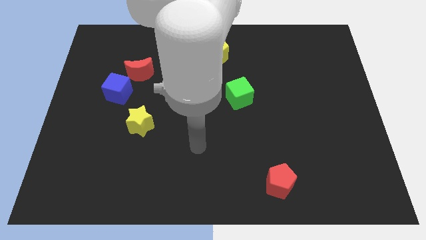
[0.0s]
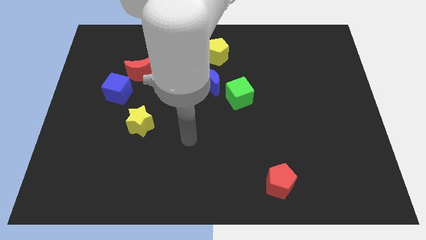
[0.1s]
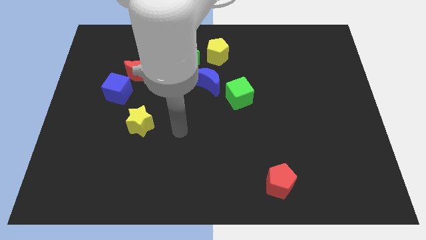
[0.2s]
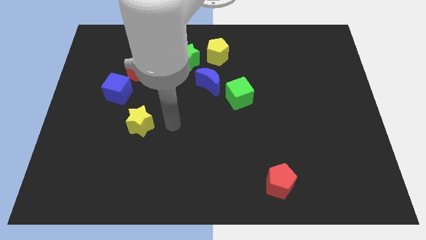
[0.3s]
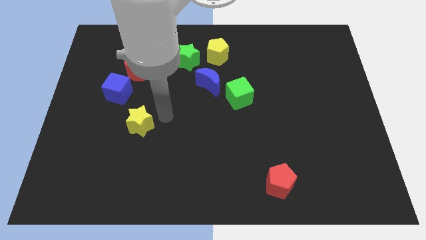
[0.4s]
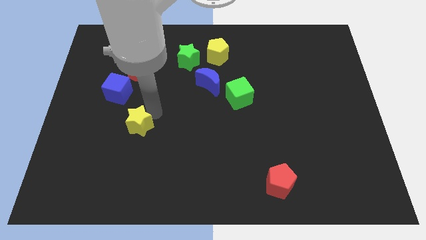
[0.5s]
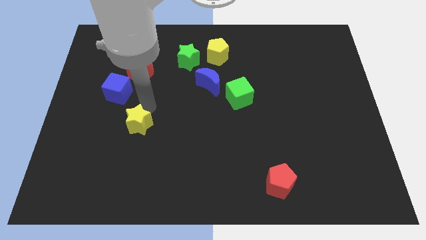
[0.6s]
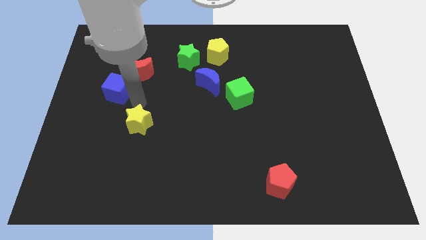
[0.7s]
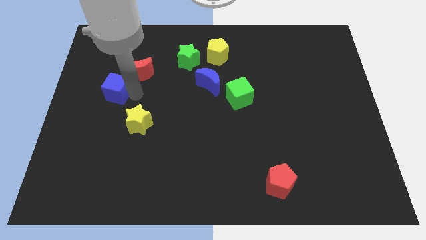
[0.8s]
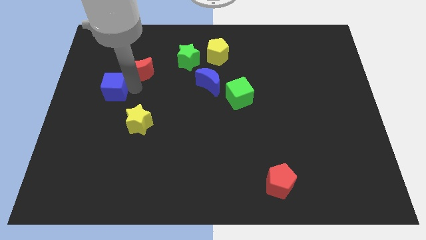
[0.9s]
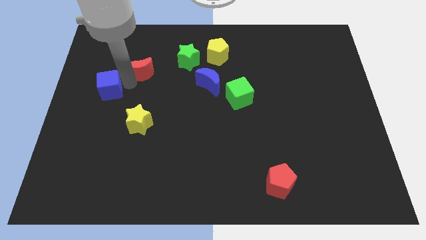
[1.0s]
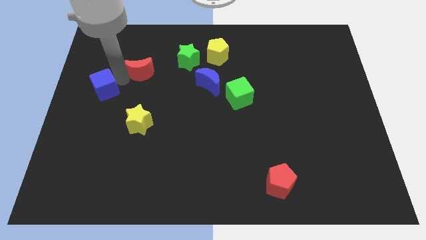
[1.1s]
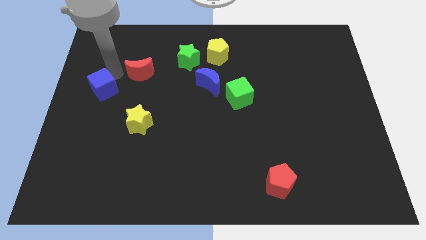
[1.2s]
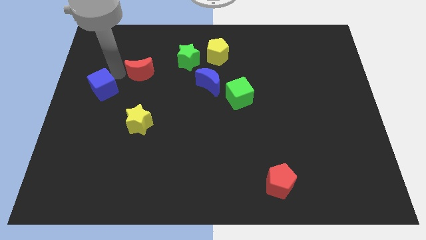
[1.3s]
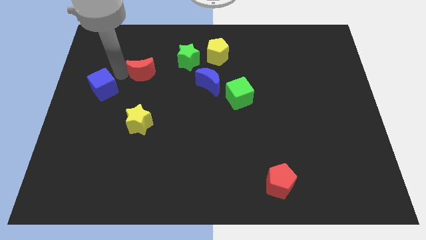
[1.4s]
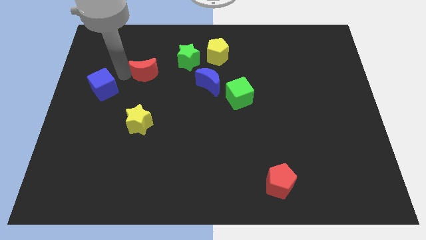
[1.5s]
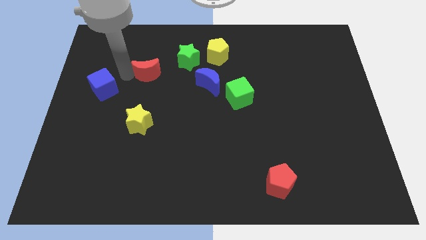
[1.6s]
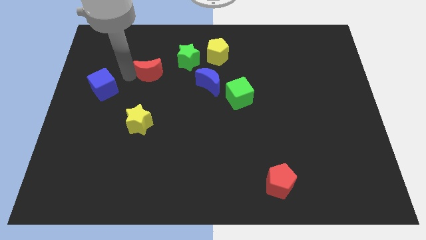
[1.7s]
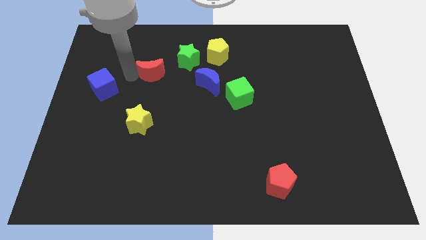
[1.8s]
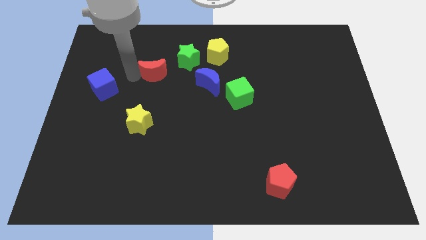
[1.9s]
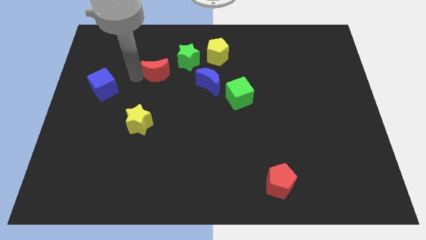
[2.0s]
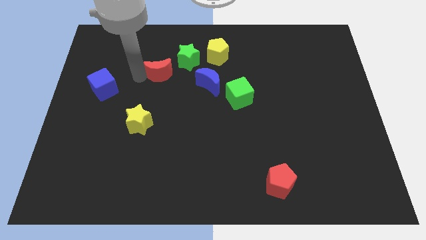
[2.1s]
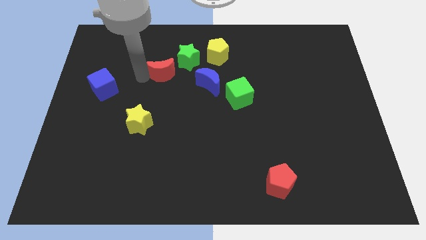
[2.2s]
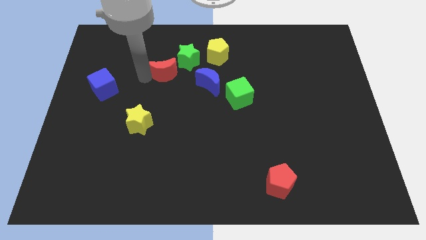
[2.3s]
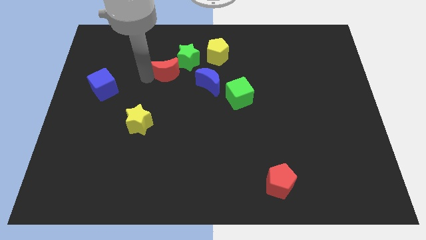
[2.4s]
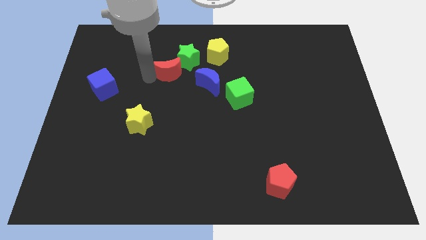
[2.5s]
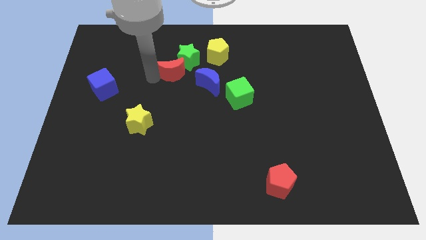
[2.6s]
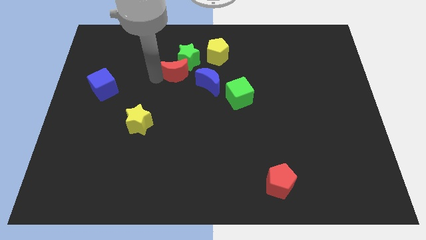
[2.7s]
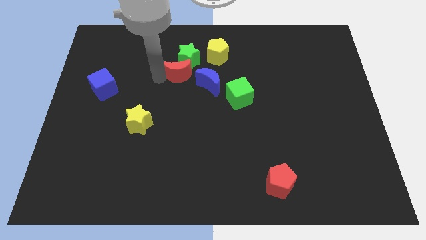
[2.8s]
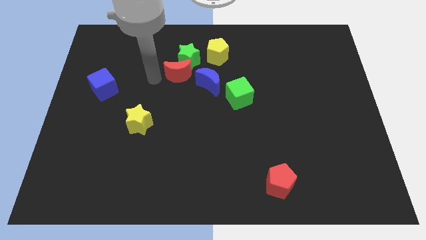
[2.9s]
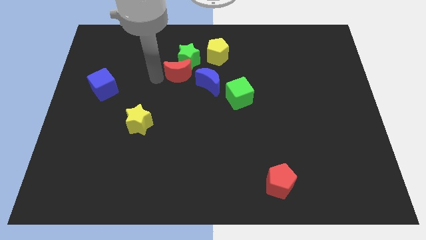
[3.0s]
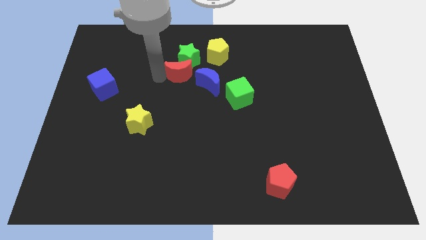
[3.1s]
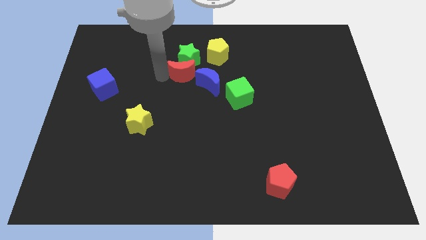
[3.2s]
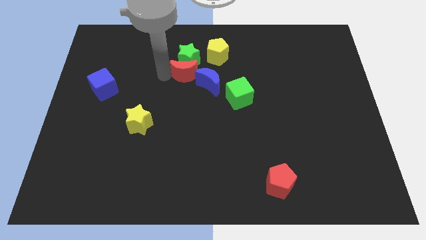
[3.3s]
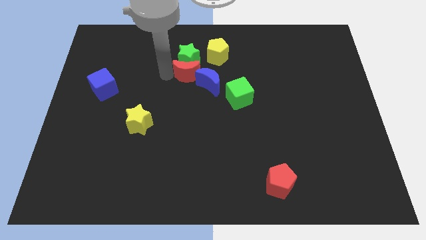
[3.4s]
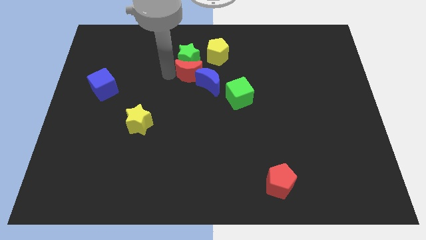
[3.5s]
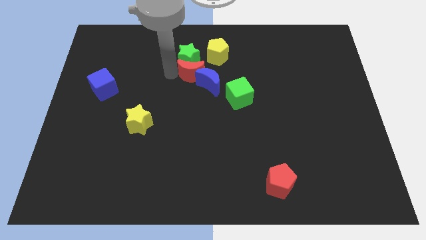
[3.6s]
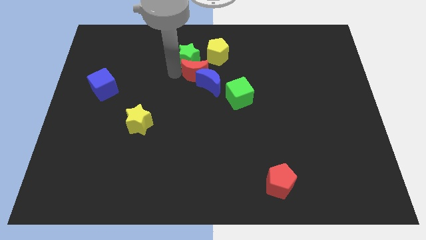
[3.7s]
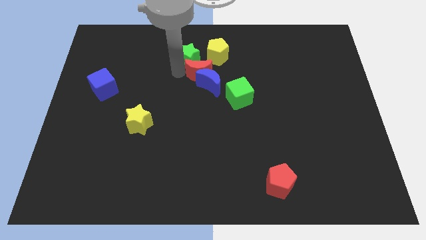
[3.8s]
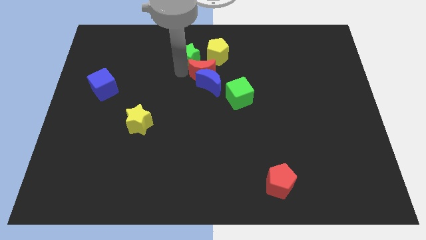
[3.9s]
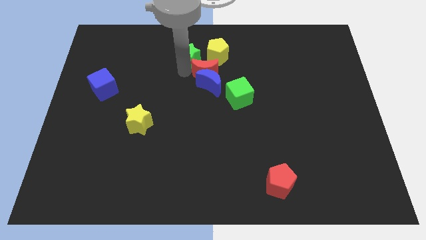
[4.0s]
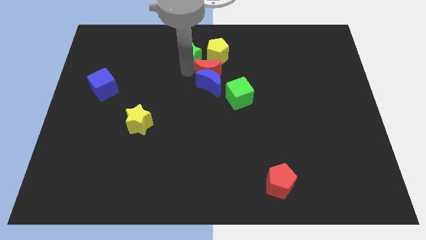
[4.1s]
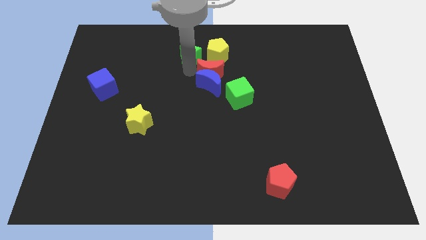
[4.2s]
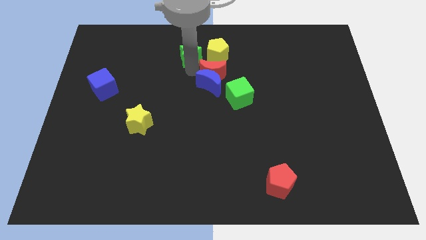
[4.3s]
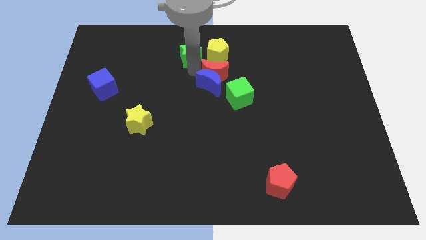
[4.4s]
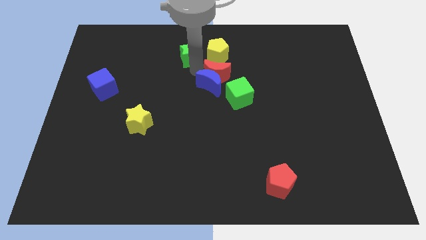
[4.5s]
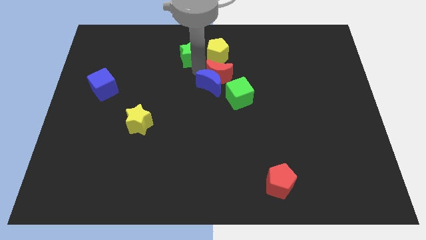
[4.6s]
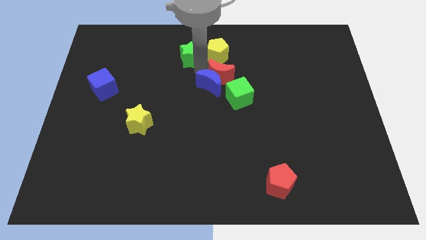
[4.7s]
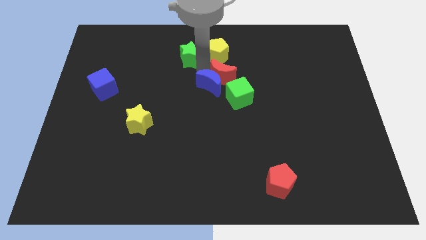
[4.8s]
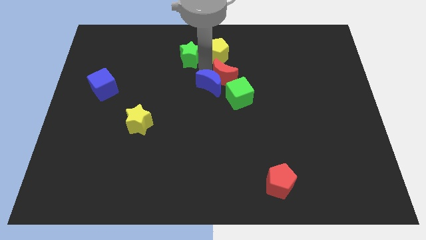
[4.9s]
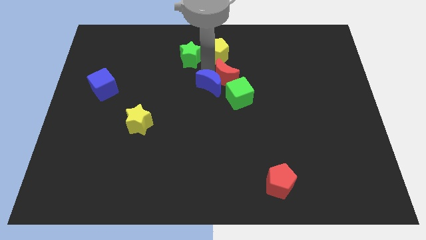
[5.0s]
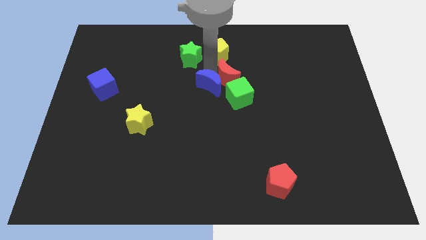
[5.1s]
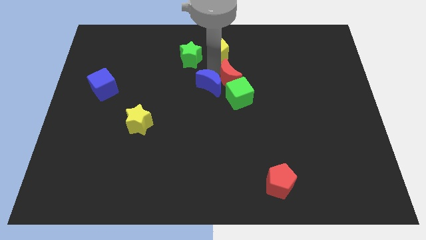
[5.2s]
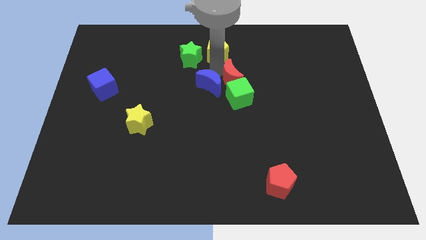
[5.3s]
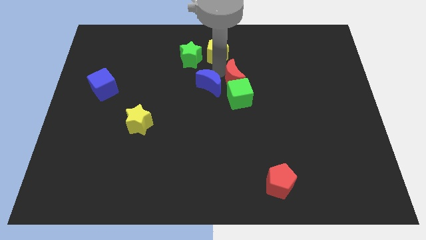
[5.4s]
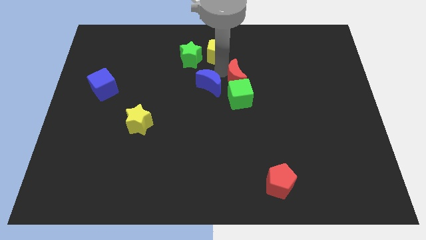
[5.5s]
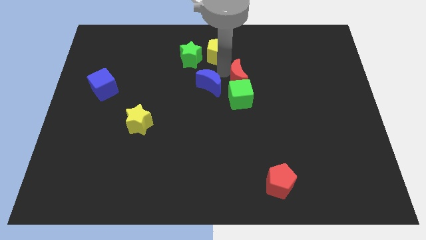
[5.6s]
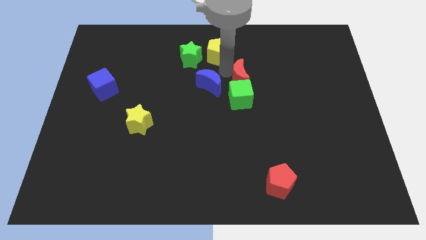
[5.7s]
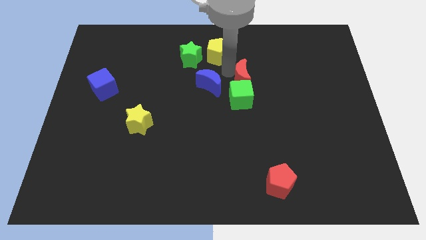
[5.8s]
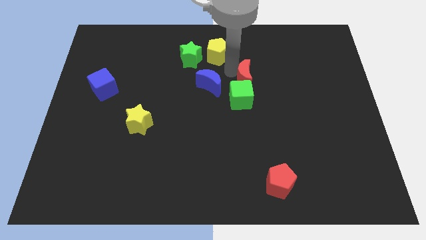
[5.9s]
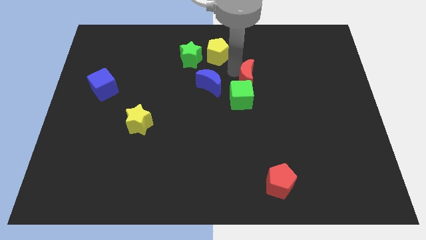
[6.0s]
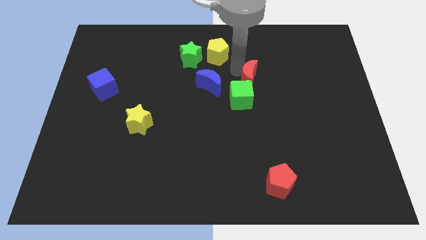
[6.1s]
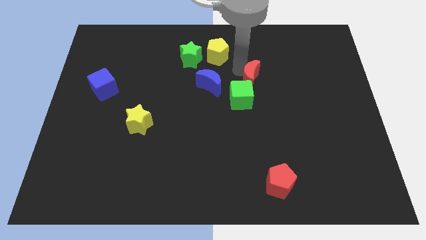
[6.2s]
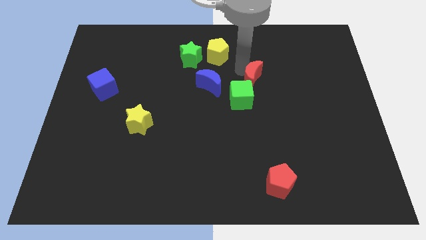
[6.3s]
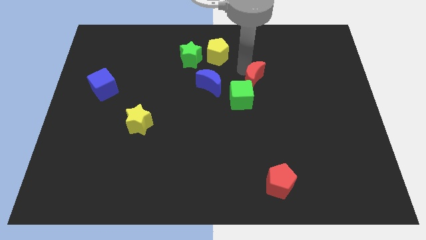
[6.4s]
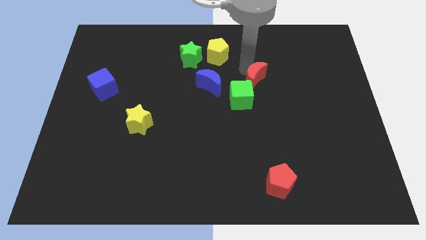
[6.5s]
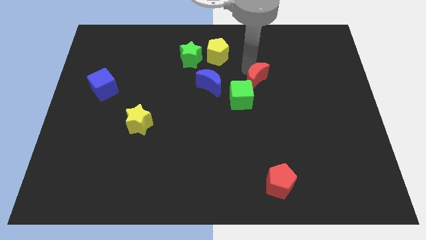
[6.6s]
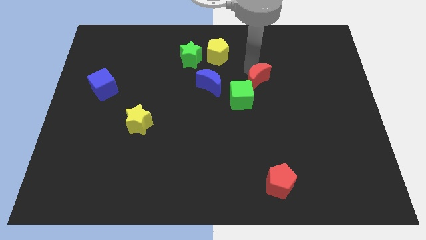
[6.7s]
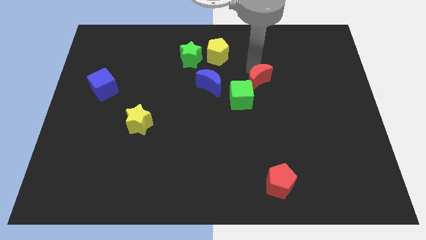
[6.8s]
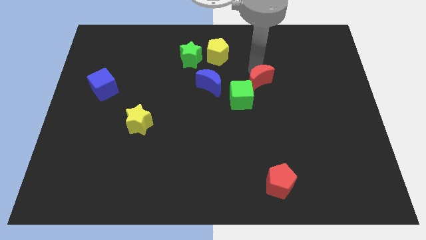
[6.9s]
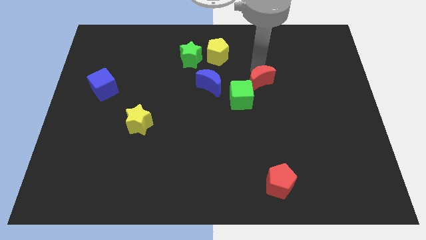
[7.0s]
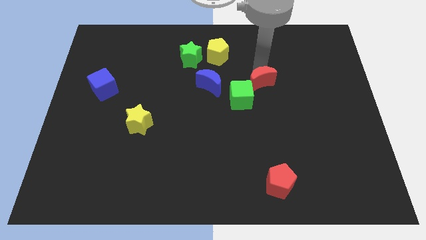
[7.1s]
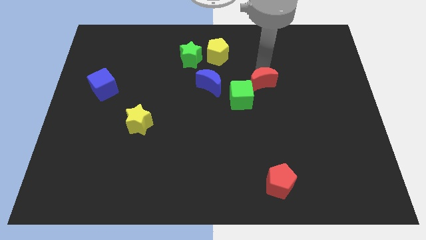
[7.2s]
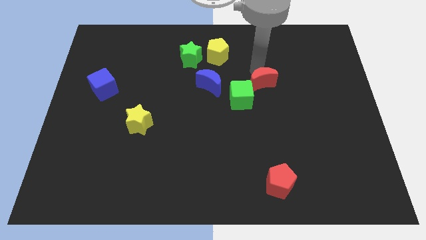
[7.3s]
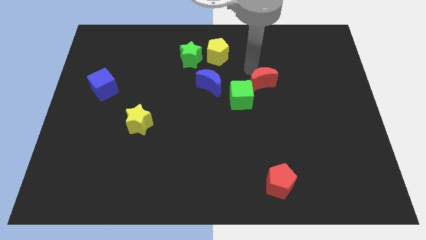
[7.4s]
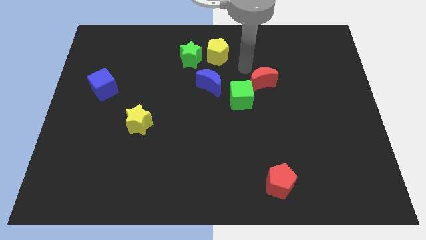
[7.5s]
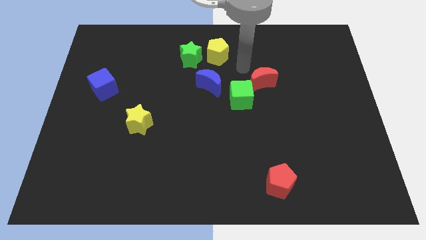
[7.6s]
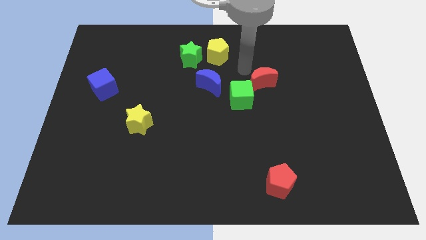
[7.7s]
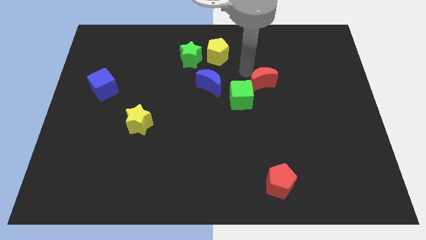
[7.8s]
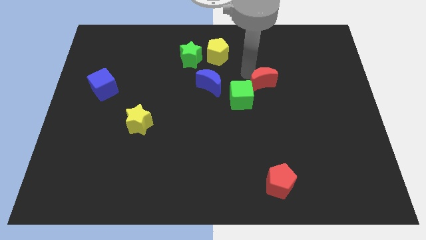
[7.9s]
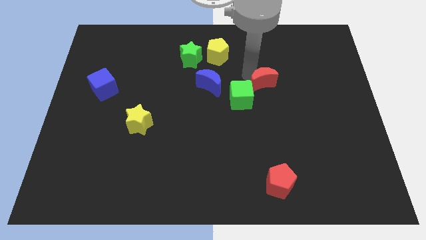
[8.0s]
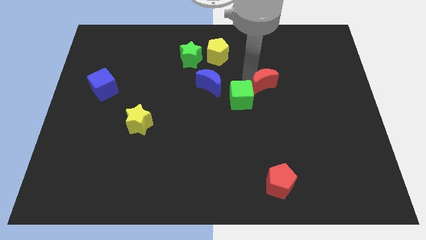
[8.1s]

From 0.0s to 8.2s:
move the red moon to the right of the green cube
